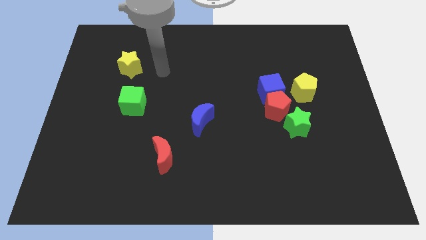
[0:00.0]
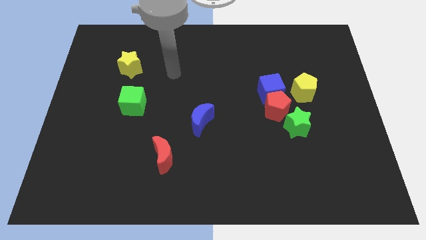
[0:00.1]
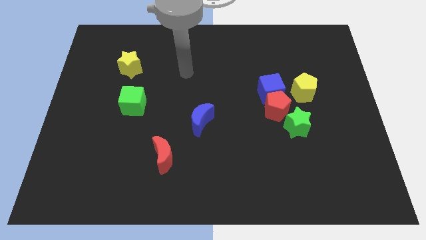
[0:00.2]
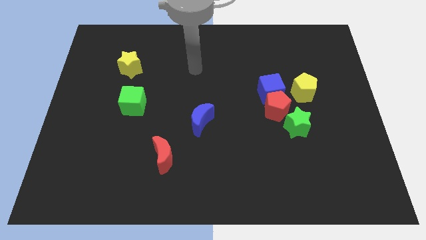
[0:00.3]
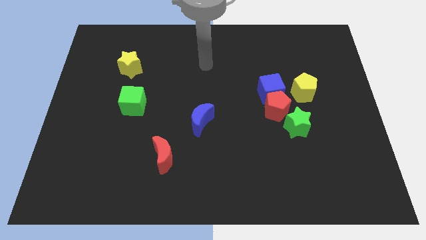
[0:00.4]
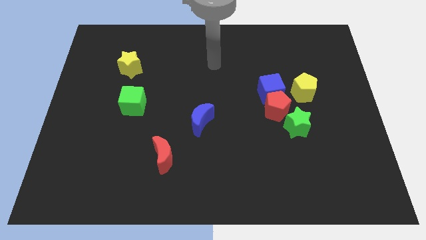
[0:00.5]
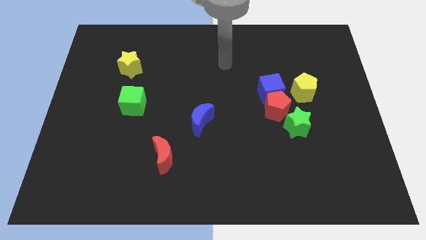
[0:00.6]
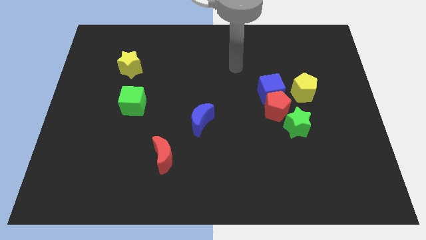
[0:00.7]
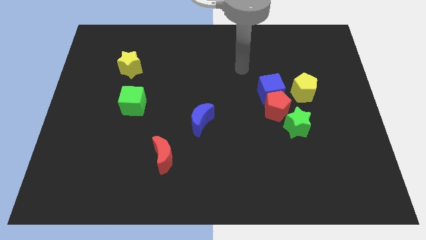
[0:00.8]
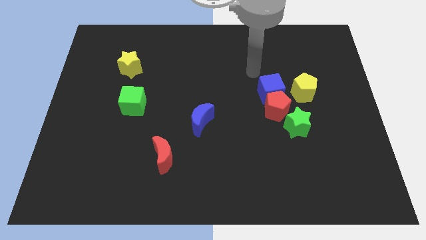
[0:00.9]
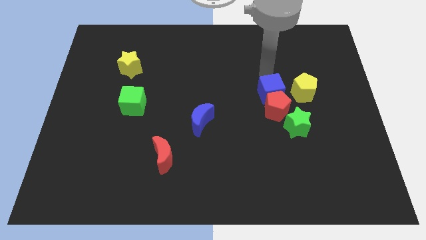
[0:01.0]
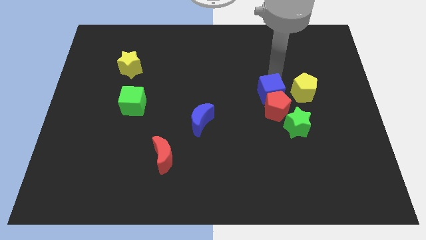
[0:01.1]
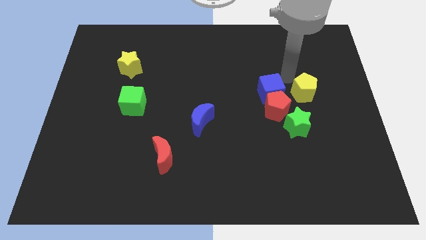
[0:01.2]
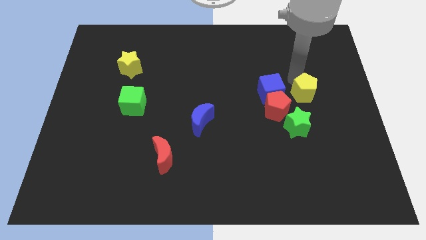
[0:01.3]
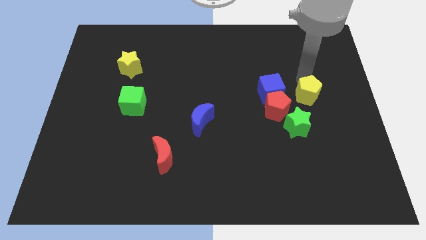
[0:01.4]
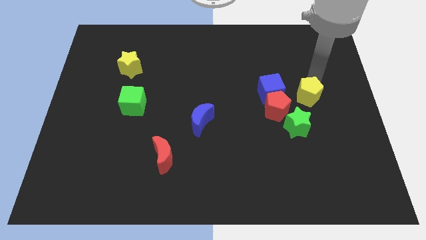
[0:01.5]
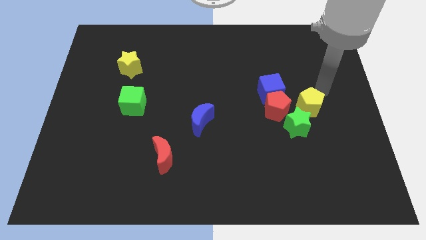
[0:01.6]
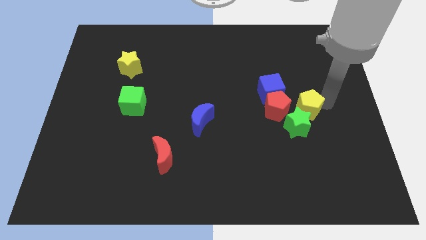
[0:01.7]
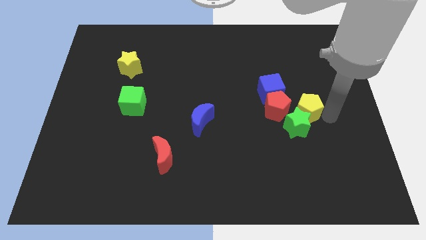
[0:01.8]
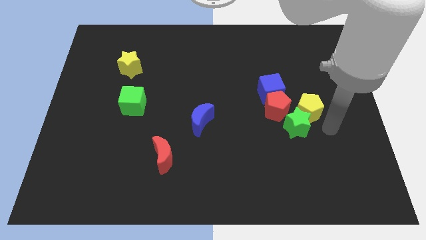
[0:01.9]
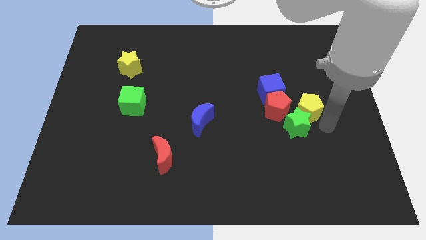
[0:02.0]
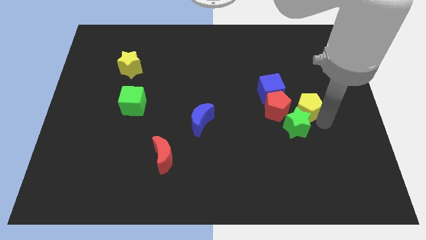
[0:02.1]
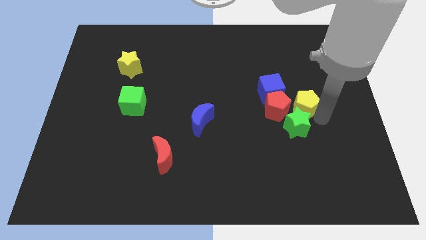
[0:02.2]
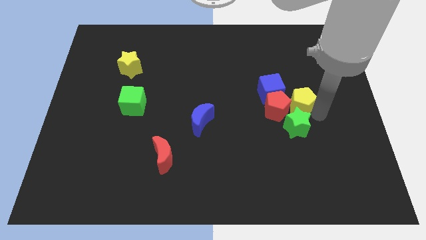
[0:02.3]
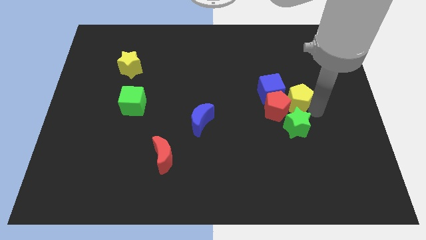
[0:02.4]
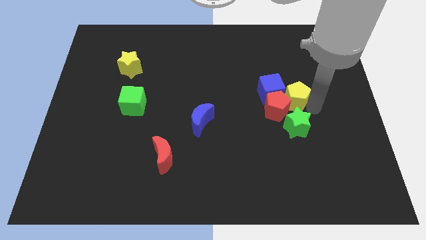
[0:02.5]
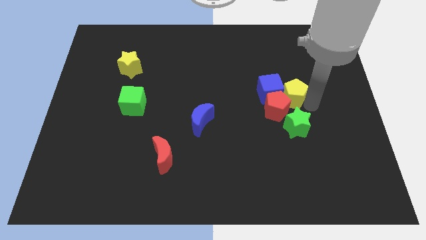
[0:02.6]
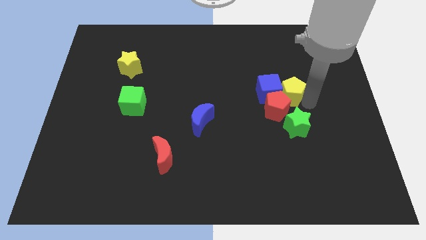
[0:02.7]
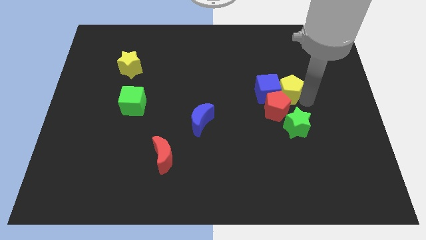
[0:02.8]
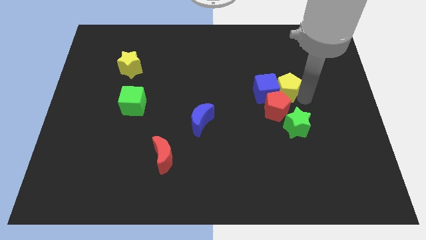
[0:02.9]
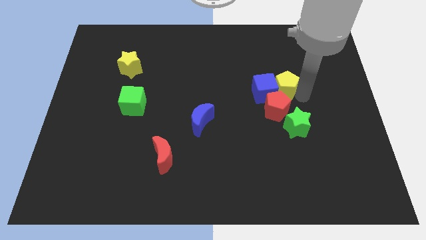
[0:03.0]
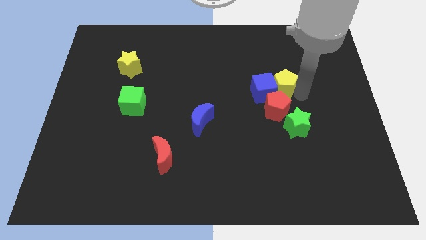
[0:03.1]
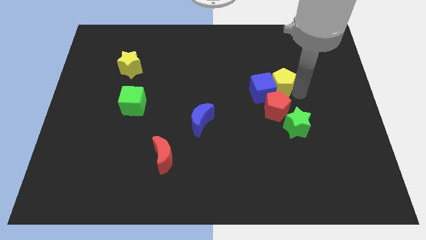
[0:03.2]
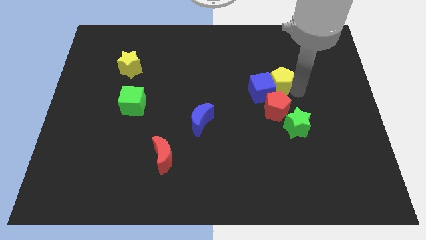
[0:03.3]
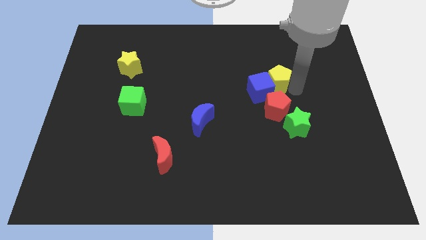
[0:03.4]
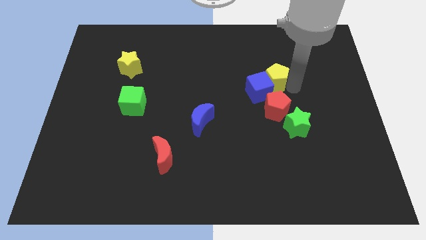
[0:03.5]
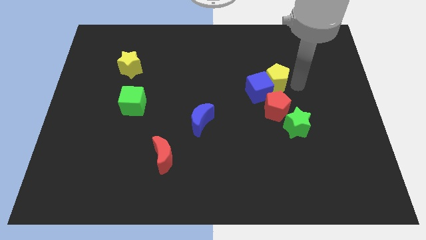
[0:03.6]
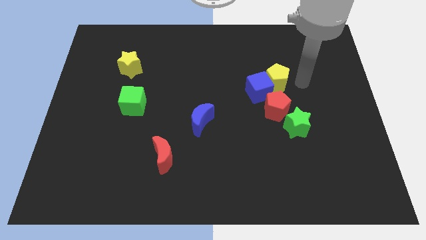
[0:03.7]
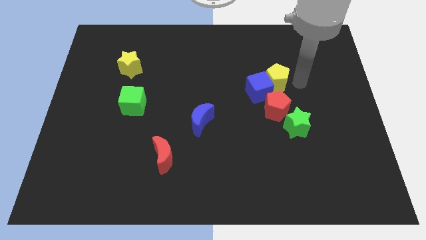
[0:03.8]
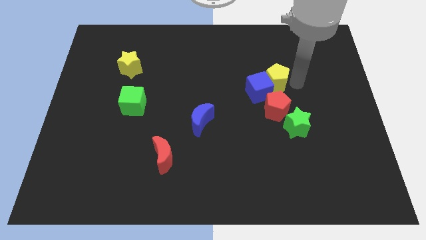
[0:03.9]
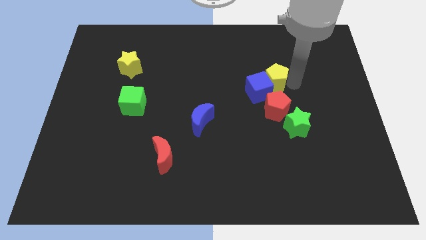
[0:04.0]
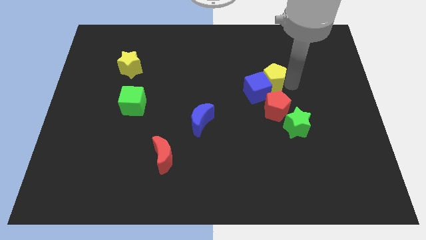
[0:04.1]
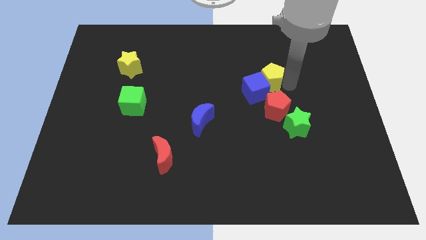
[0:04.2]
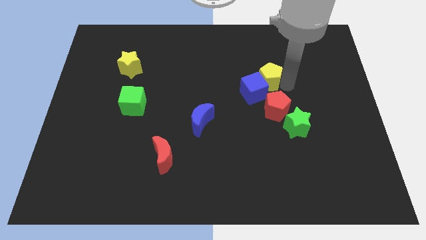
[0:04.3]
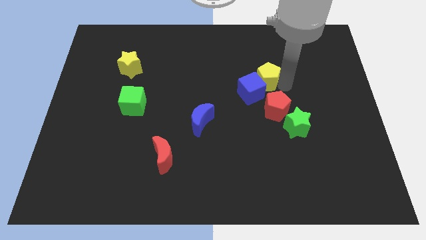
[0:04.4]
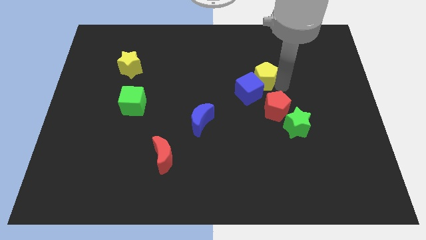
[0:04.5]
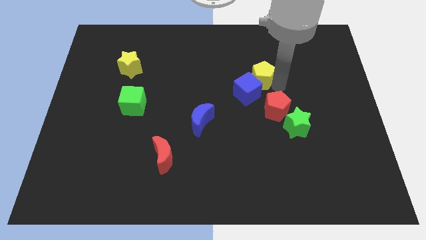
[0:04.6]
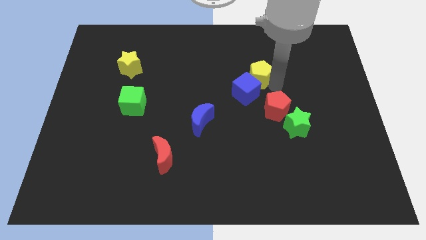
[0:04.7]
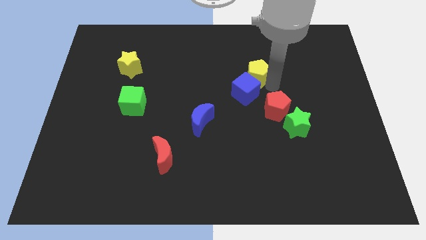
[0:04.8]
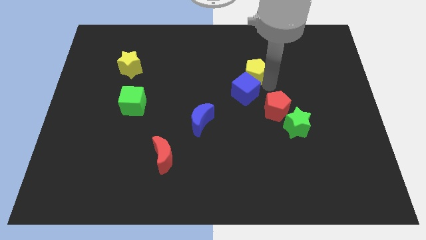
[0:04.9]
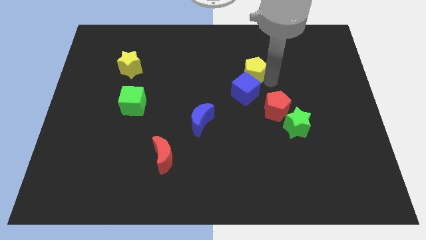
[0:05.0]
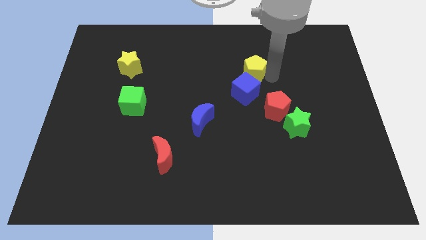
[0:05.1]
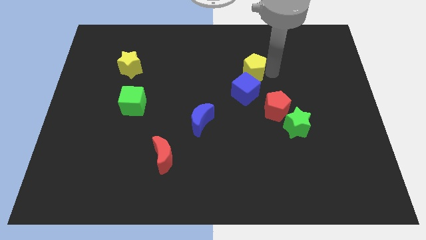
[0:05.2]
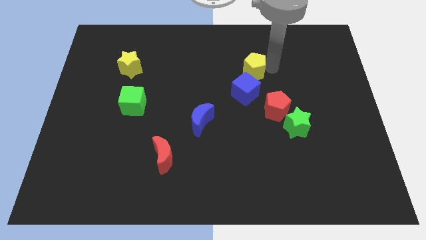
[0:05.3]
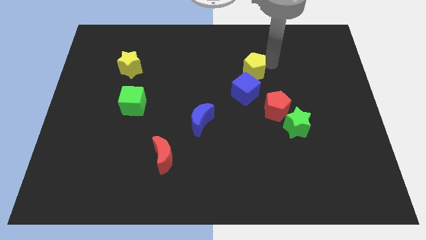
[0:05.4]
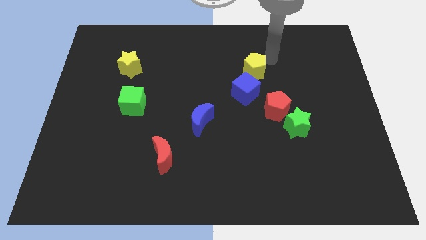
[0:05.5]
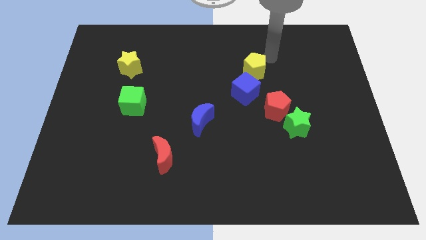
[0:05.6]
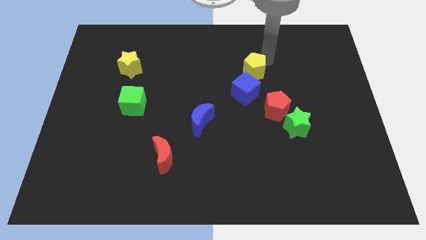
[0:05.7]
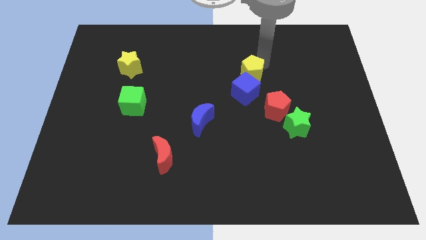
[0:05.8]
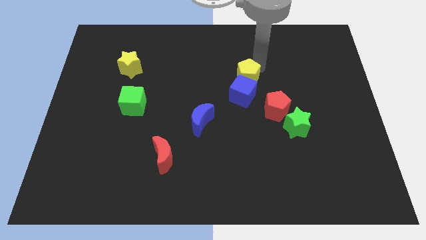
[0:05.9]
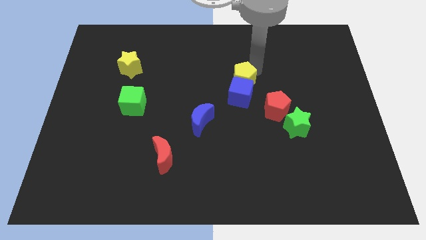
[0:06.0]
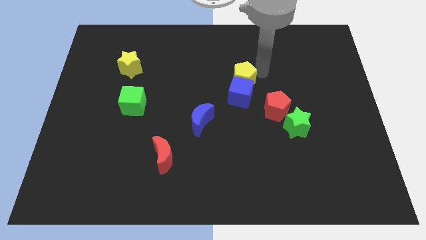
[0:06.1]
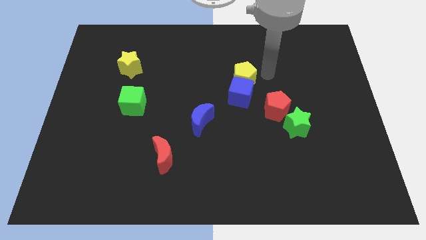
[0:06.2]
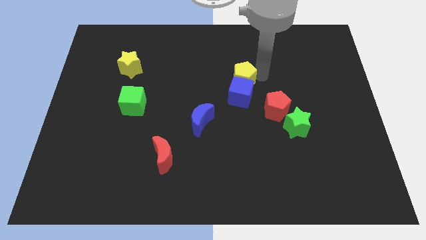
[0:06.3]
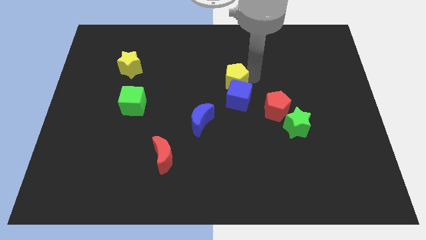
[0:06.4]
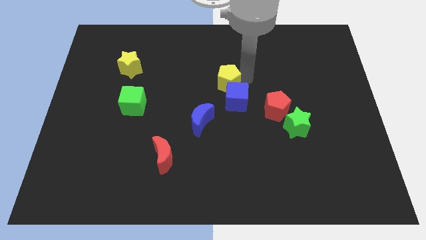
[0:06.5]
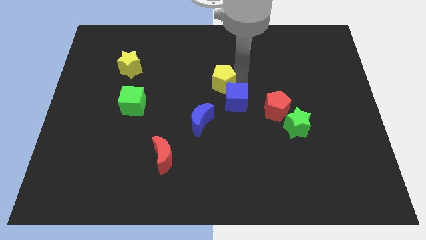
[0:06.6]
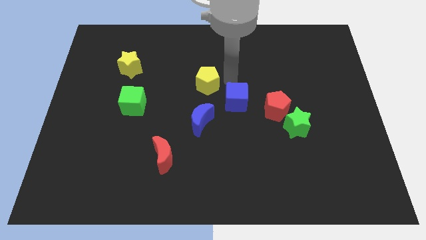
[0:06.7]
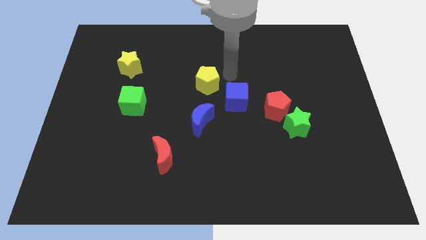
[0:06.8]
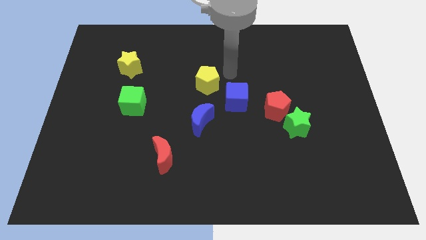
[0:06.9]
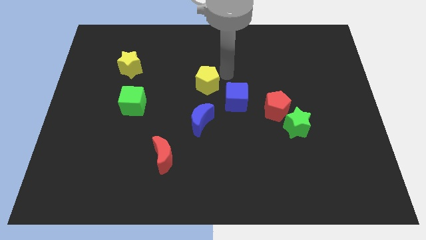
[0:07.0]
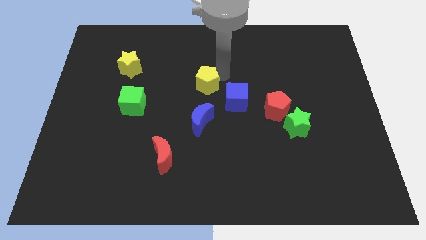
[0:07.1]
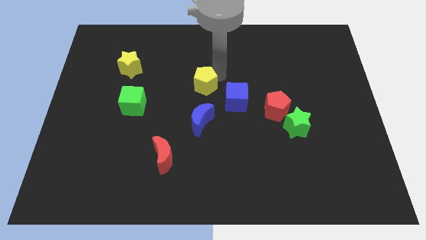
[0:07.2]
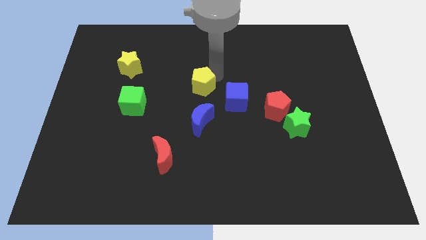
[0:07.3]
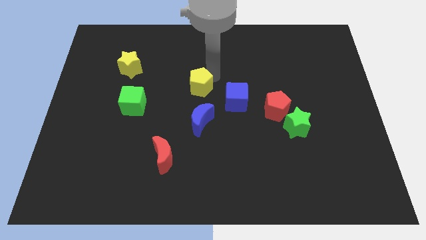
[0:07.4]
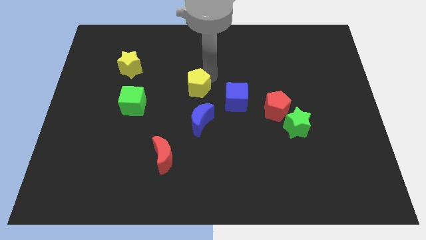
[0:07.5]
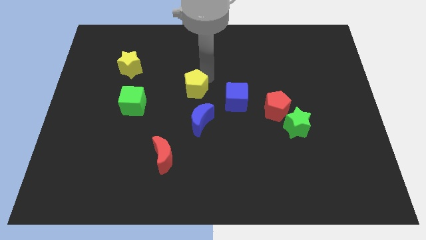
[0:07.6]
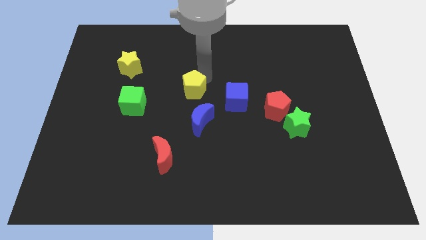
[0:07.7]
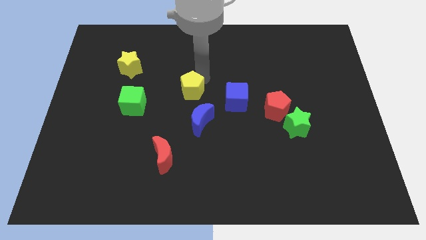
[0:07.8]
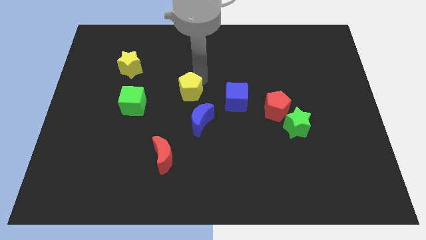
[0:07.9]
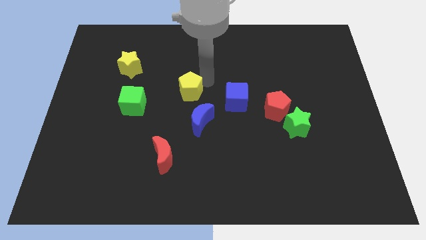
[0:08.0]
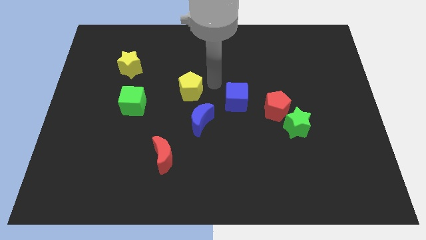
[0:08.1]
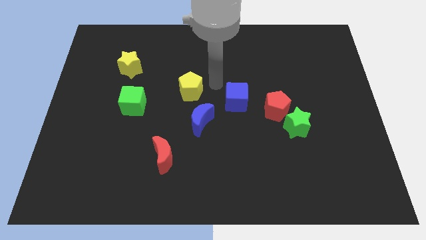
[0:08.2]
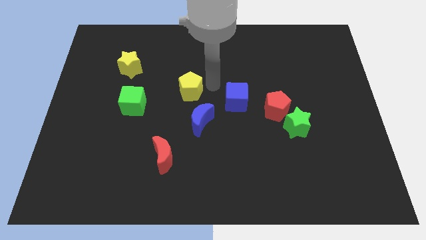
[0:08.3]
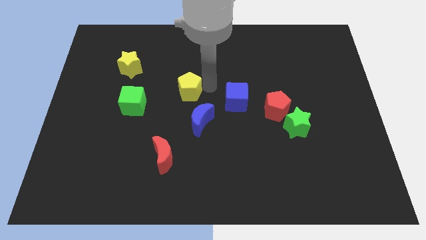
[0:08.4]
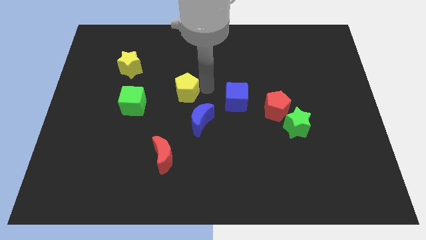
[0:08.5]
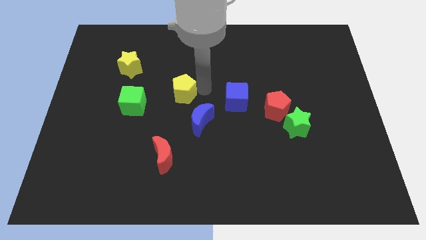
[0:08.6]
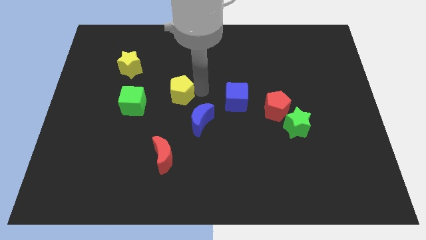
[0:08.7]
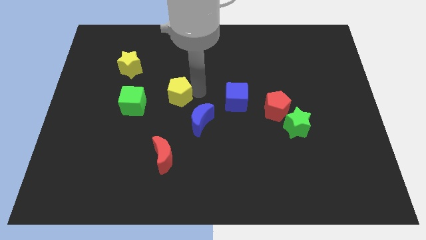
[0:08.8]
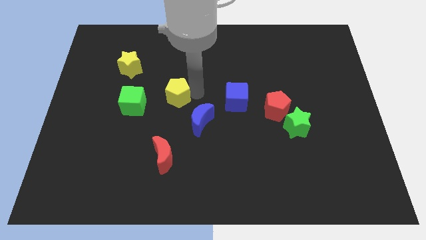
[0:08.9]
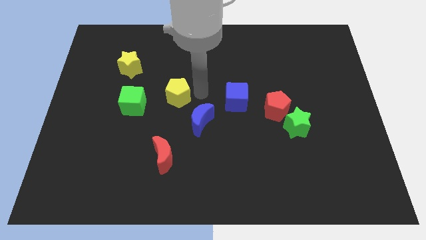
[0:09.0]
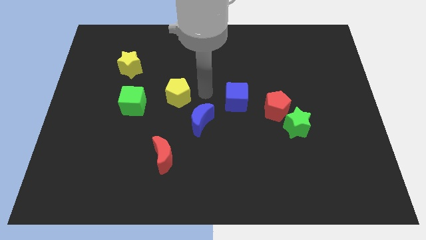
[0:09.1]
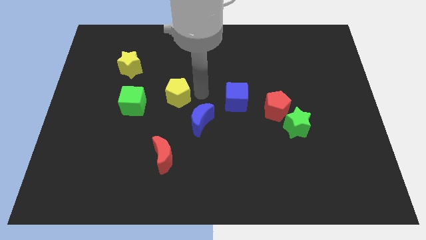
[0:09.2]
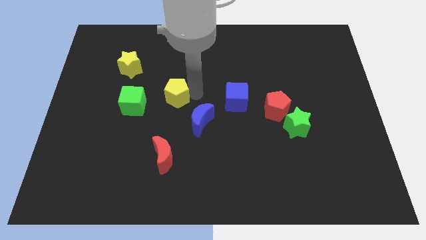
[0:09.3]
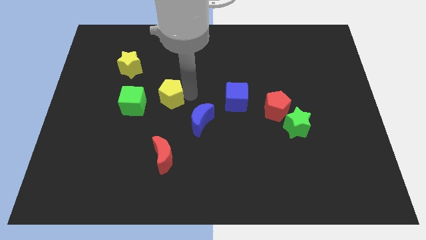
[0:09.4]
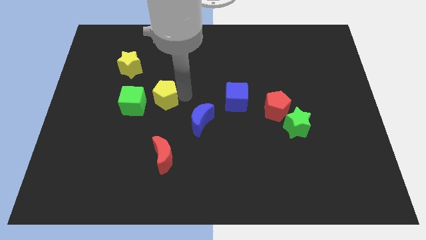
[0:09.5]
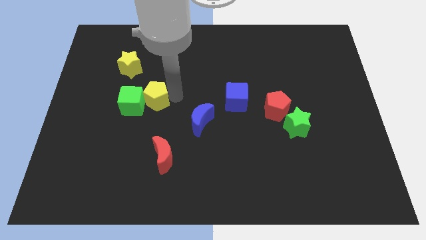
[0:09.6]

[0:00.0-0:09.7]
move the yellow pentagon to the green cube
